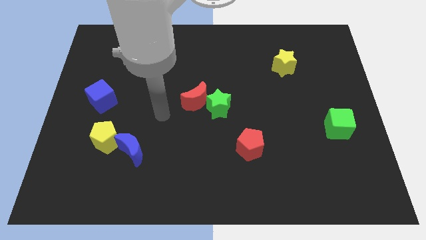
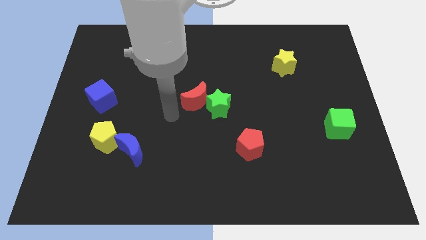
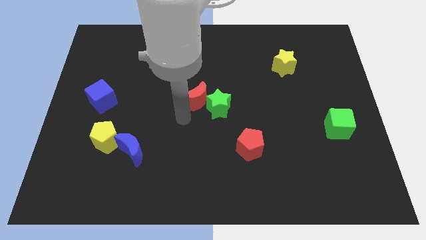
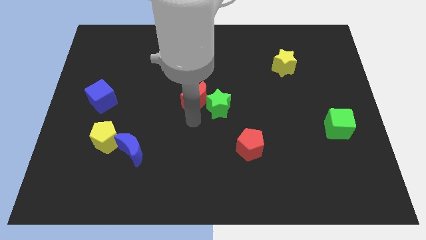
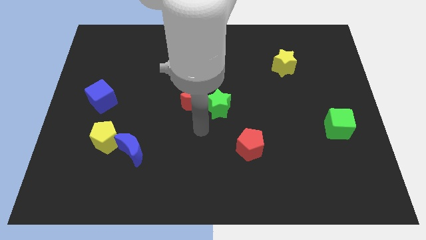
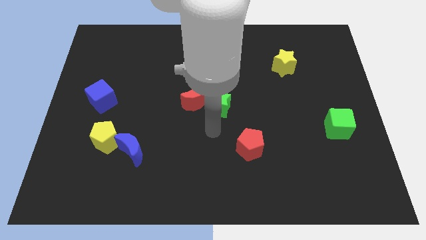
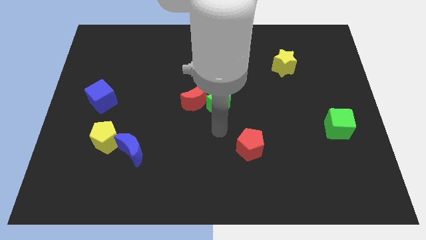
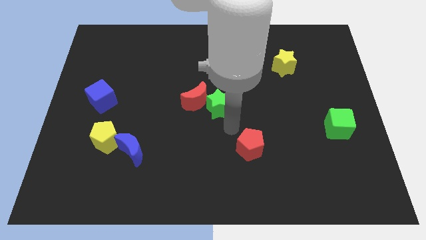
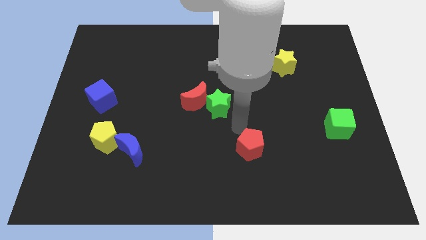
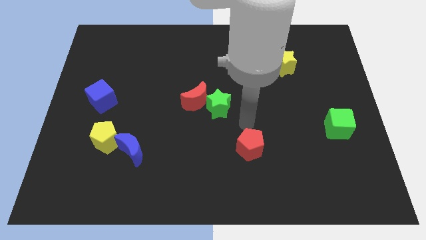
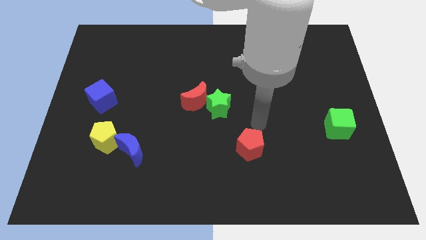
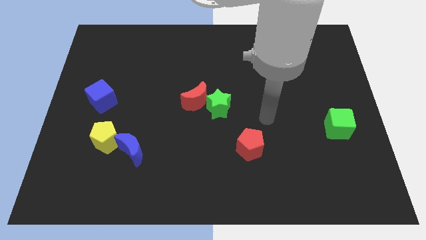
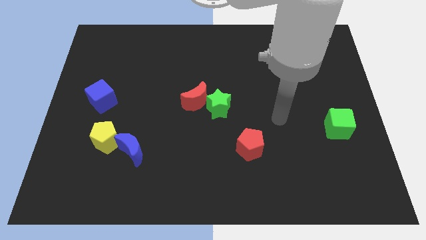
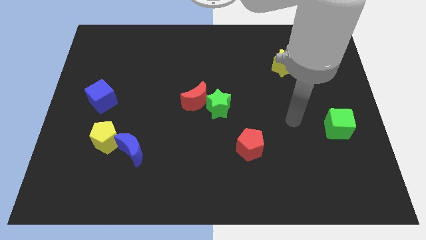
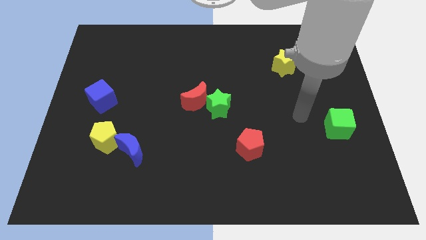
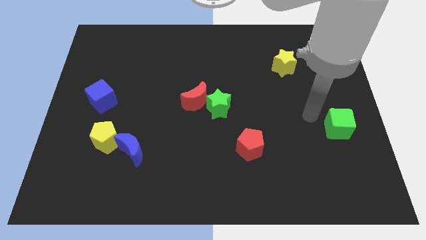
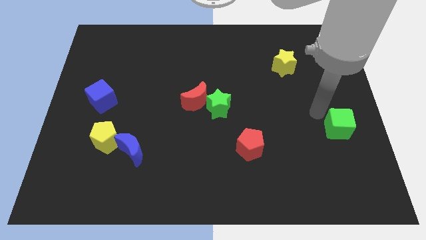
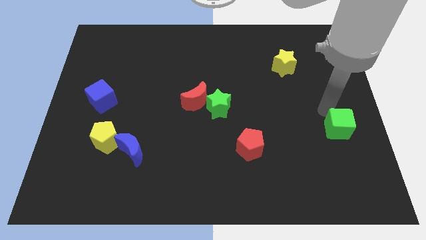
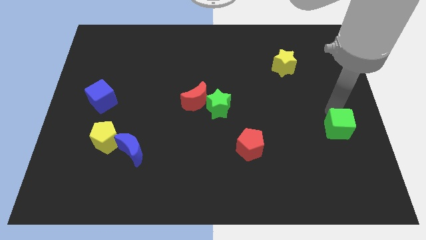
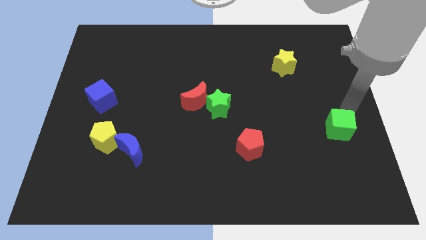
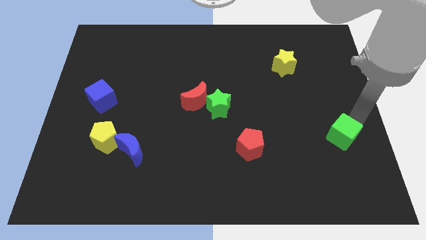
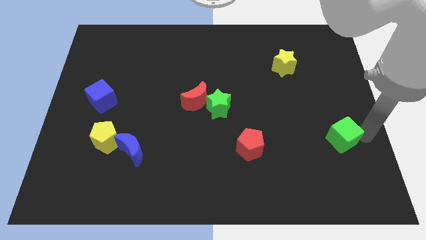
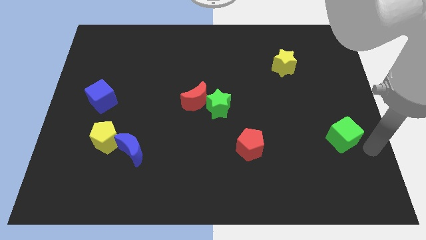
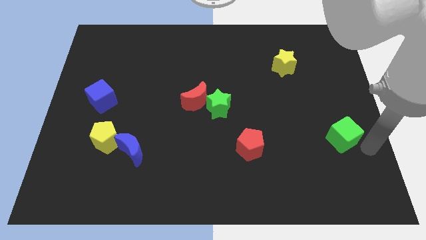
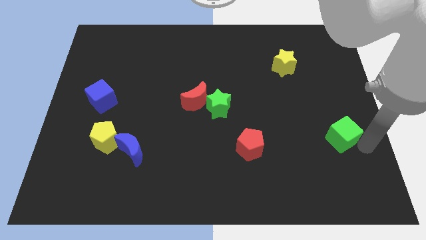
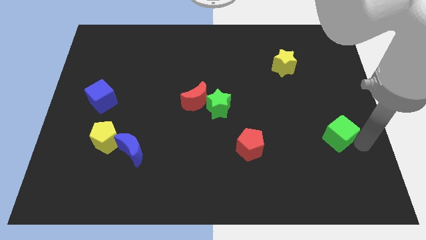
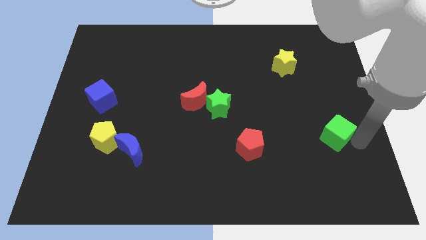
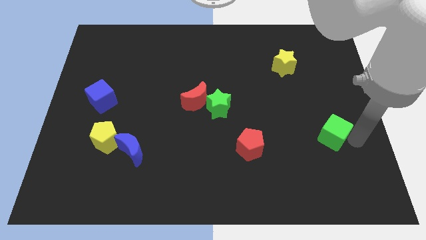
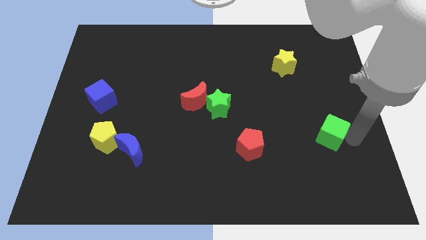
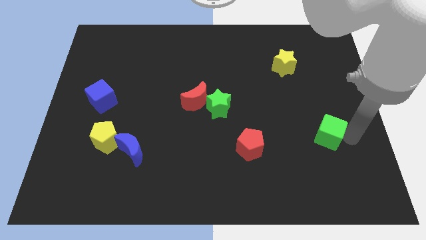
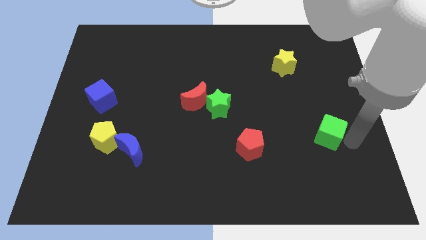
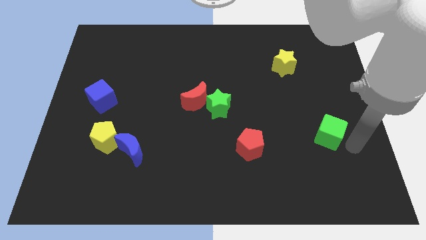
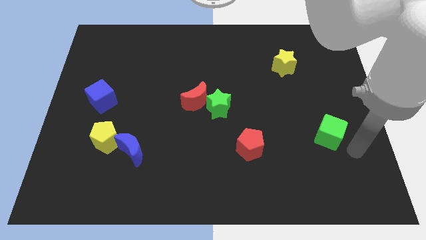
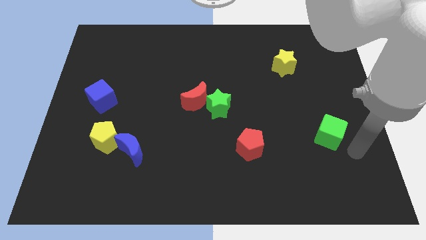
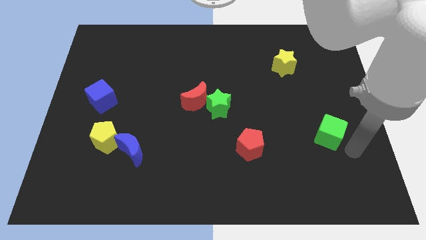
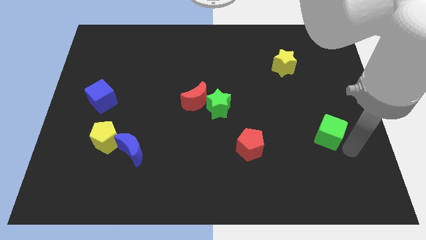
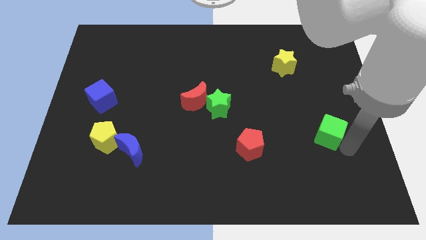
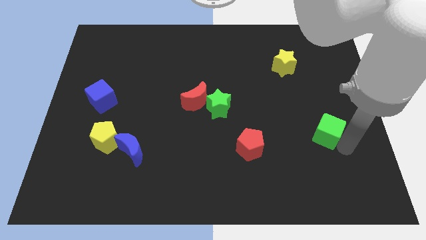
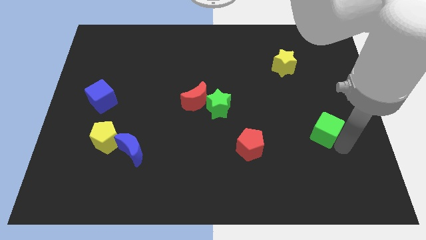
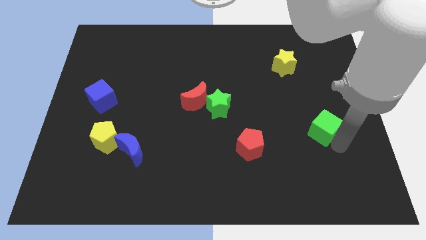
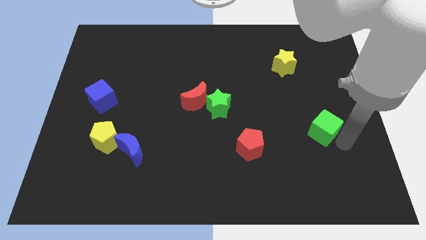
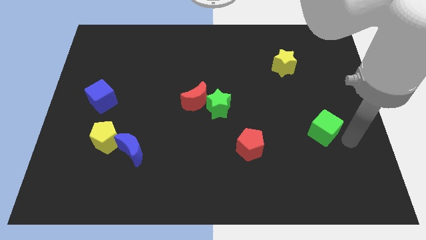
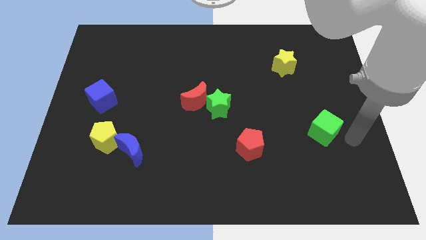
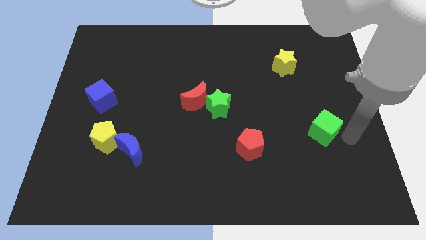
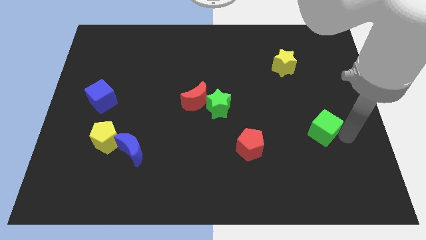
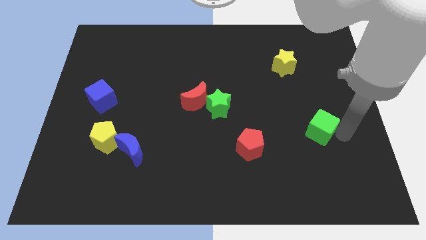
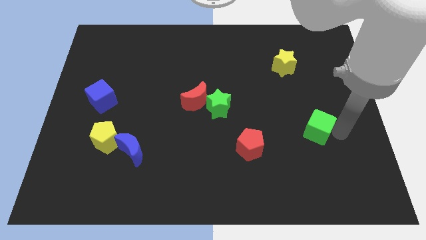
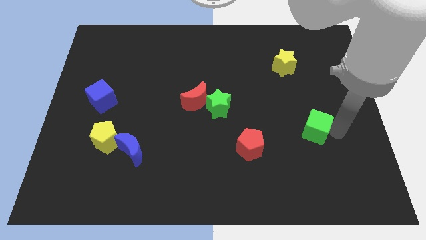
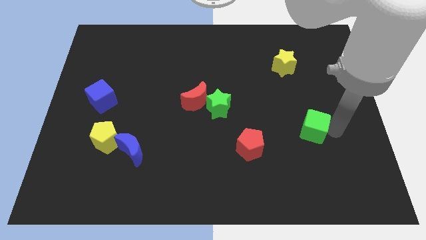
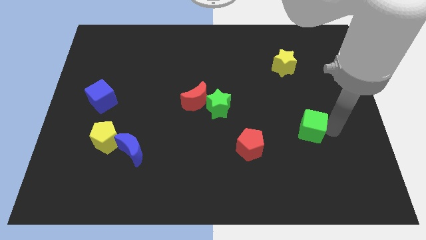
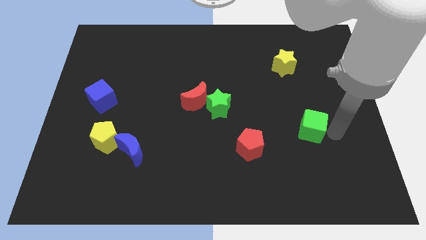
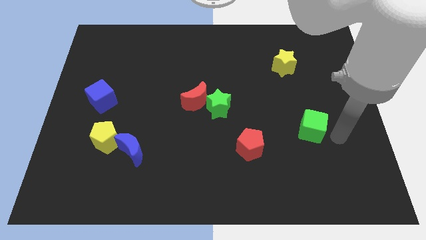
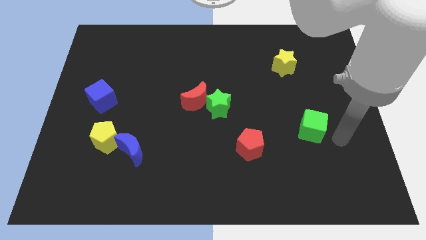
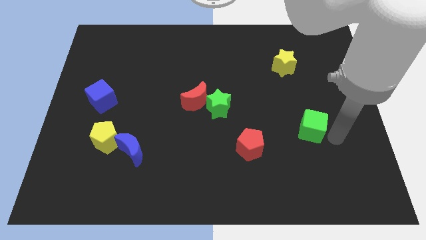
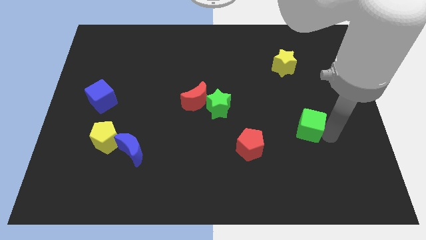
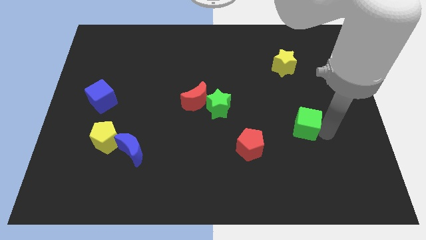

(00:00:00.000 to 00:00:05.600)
slightly slide the green cube left

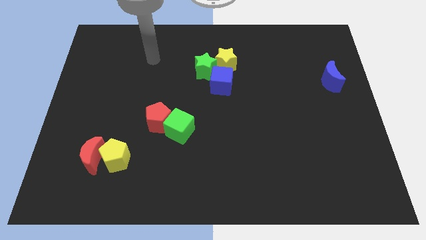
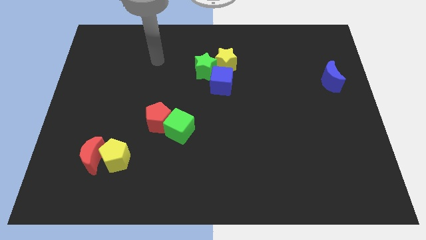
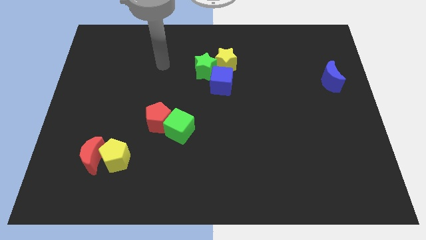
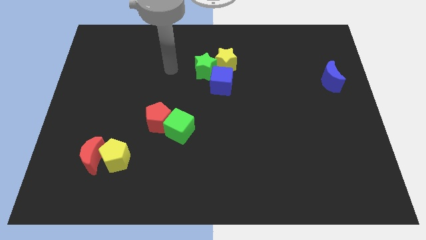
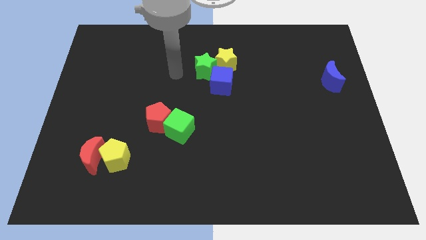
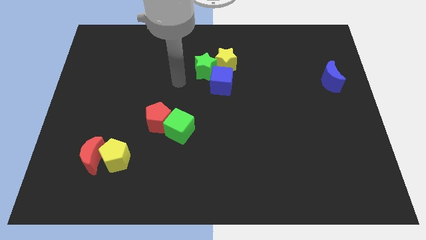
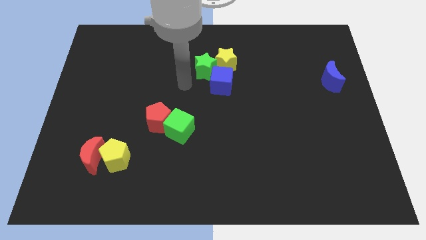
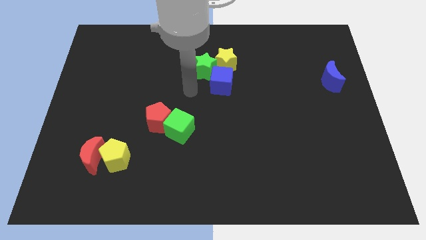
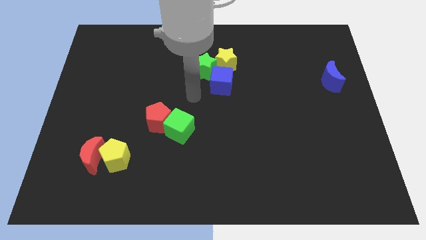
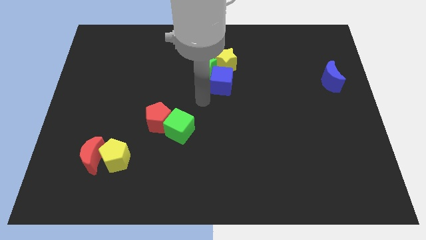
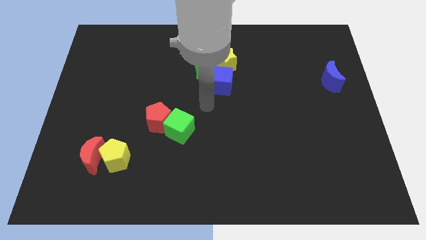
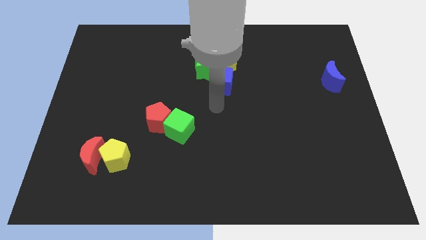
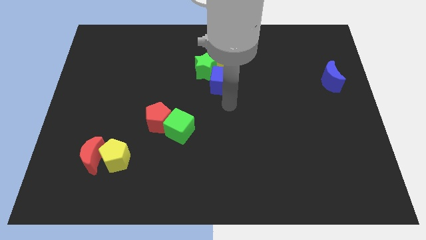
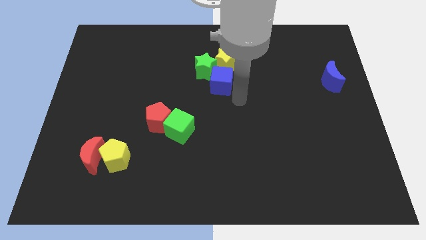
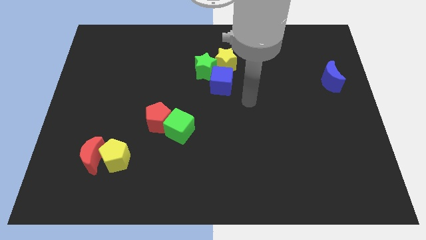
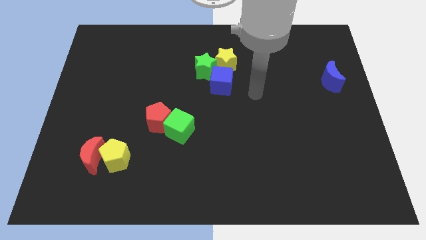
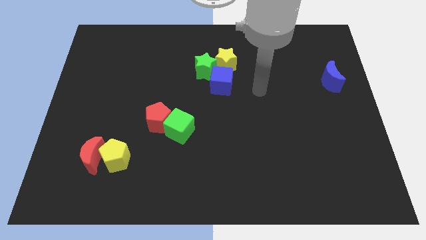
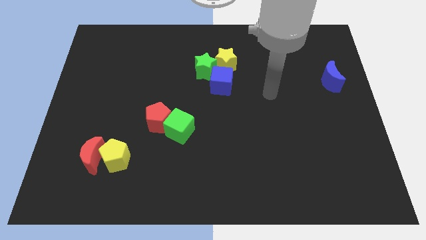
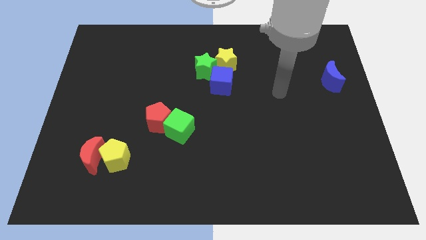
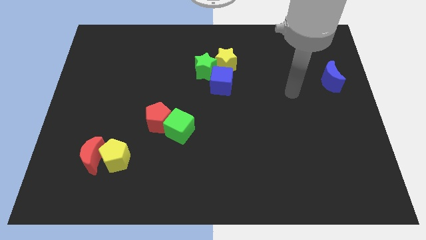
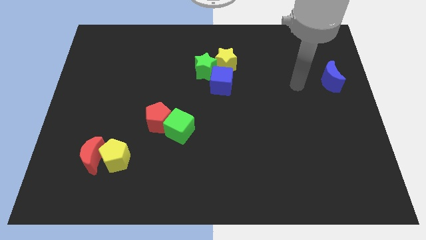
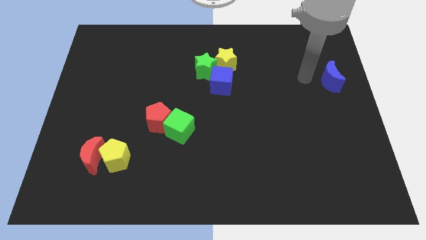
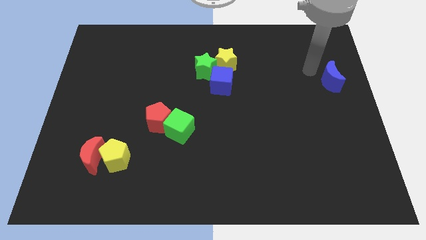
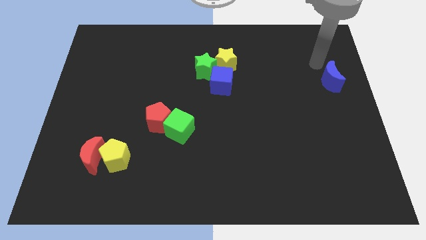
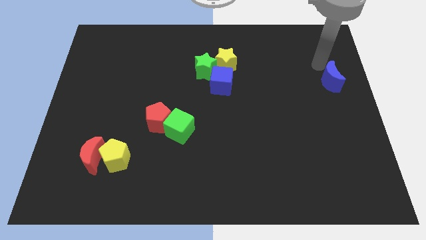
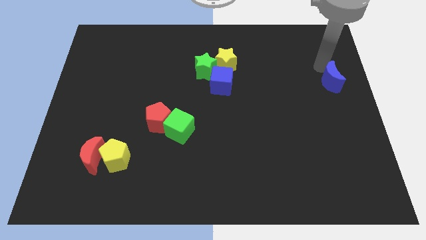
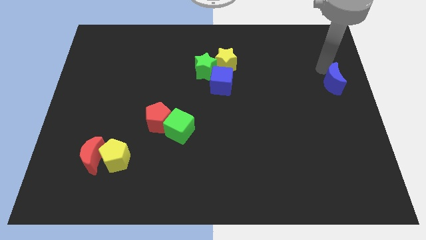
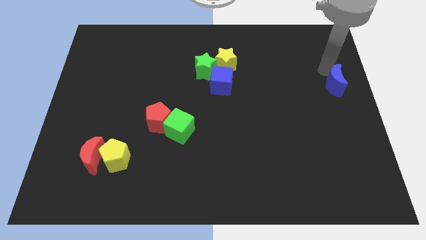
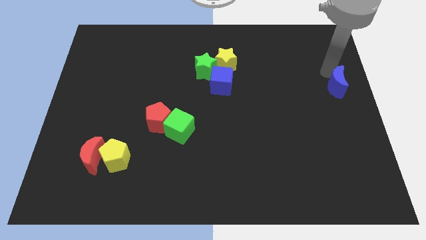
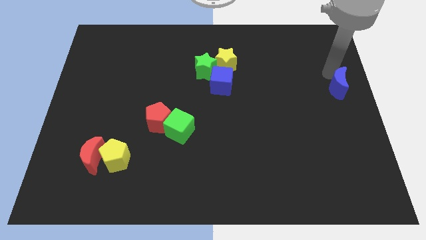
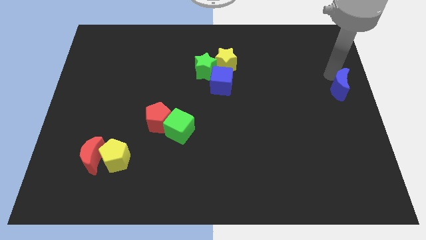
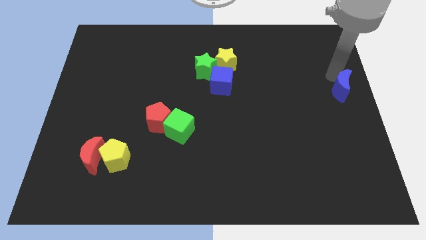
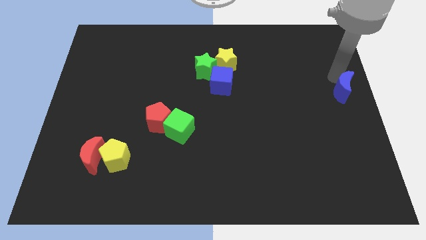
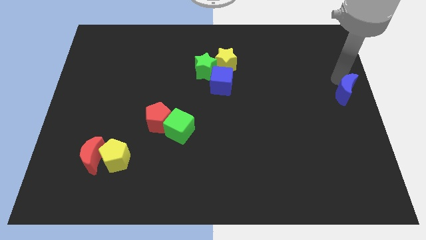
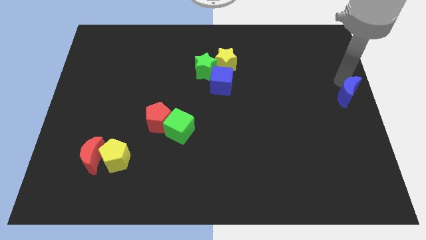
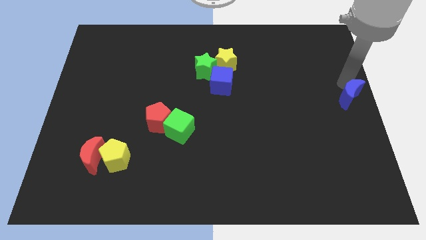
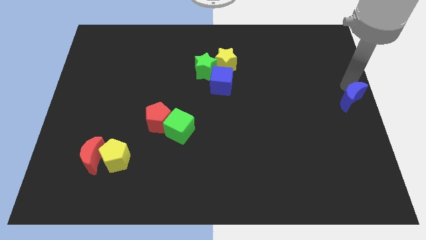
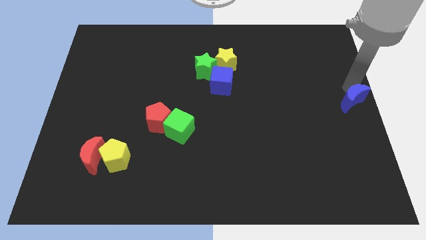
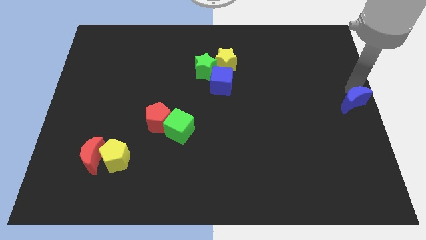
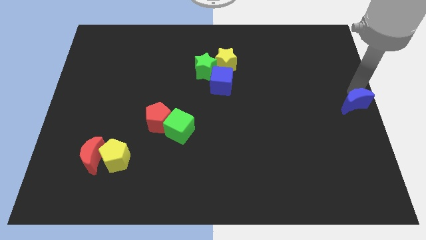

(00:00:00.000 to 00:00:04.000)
move the blue moon a bit downwards
